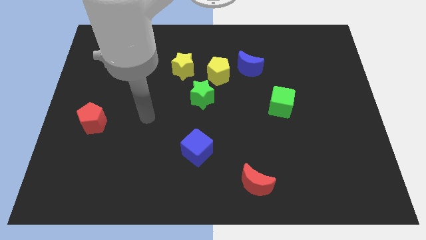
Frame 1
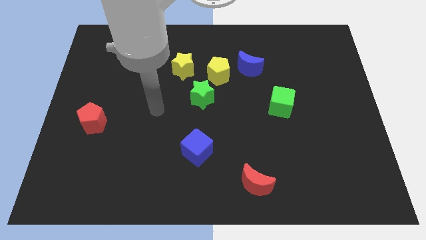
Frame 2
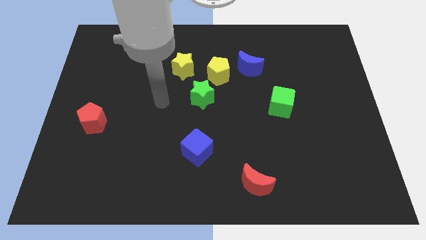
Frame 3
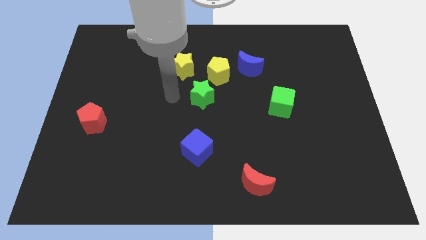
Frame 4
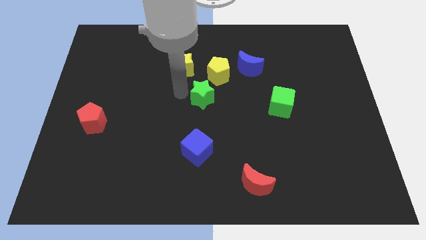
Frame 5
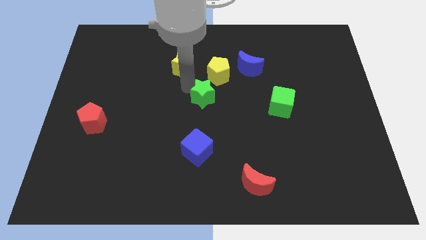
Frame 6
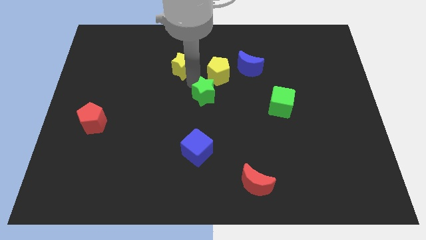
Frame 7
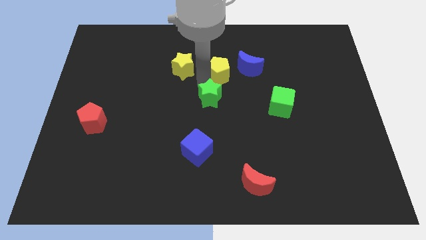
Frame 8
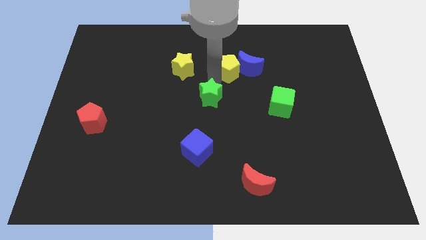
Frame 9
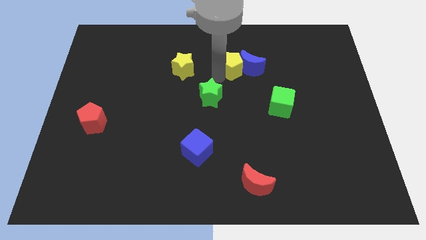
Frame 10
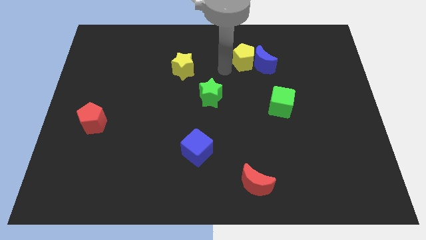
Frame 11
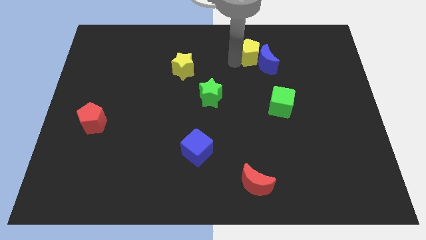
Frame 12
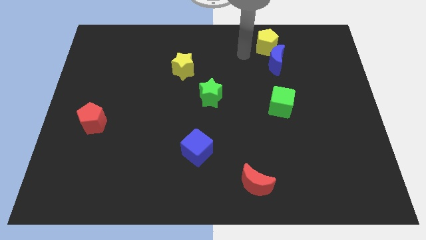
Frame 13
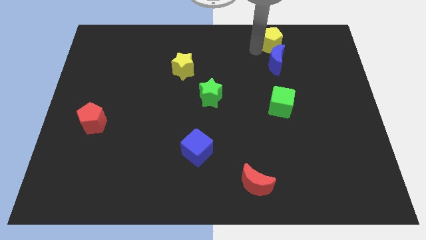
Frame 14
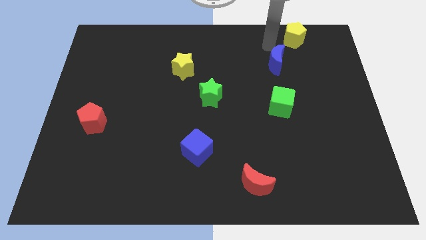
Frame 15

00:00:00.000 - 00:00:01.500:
separate the blue moon from the yellow pentagon

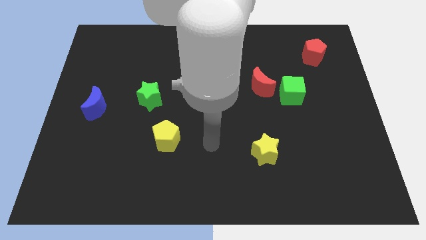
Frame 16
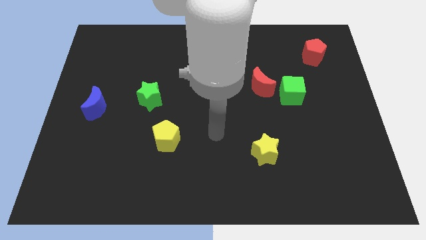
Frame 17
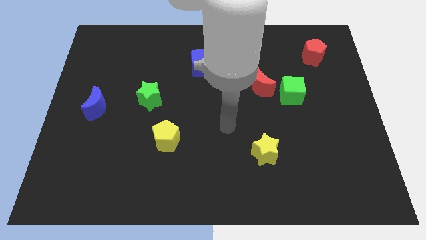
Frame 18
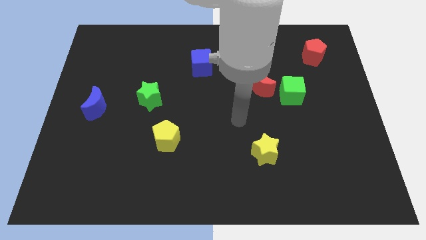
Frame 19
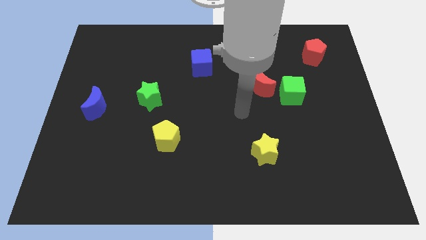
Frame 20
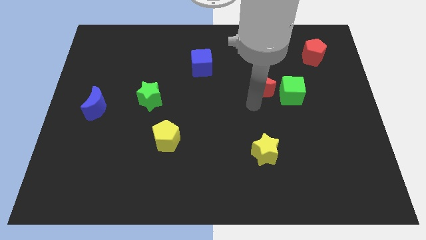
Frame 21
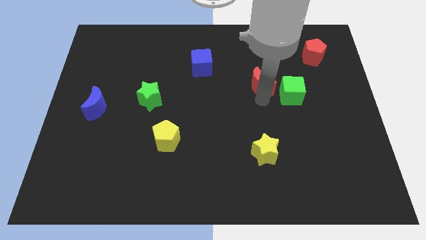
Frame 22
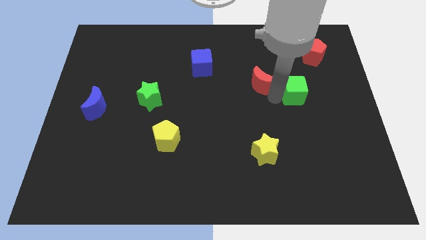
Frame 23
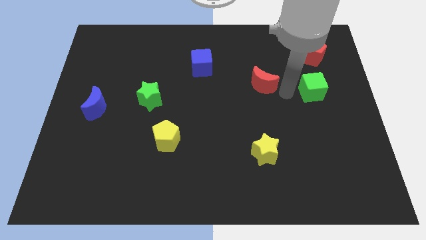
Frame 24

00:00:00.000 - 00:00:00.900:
pull the red moon apart from the green cube

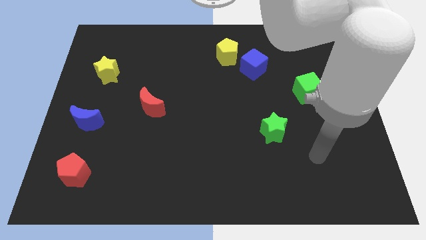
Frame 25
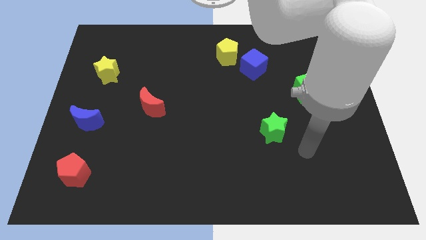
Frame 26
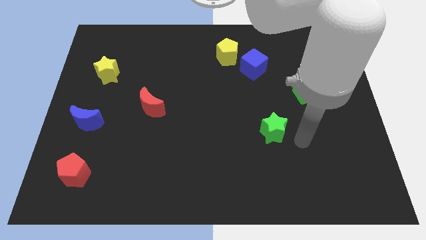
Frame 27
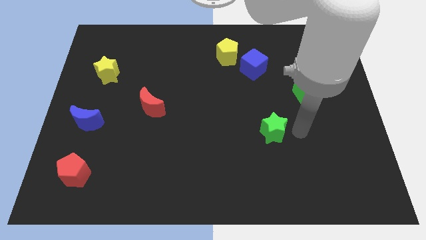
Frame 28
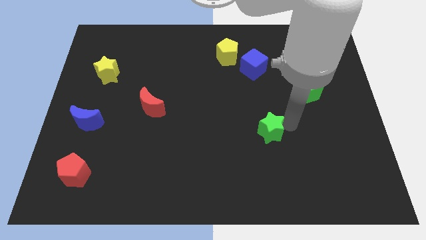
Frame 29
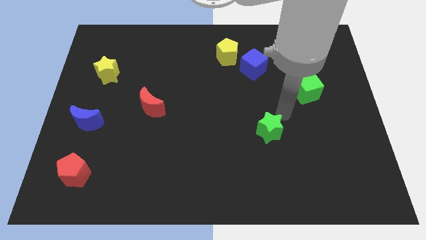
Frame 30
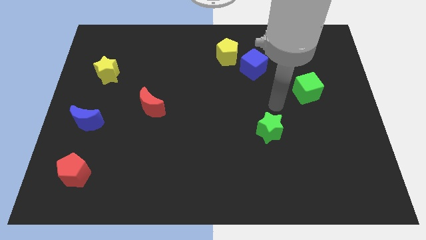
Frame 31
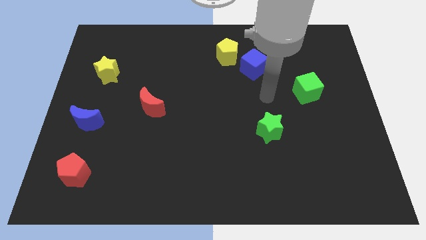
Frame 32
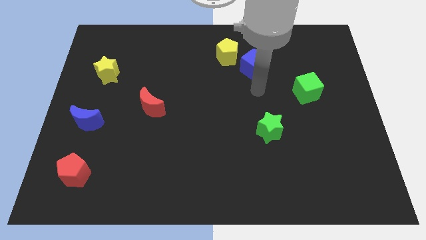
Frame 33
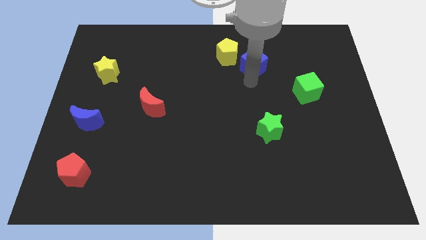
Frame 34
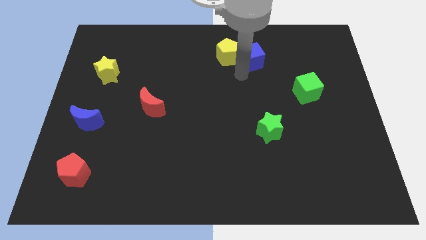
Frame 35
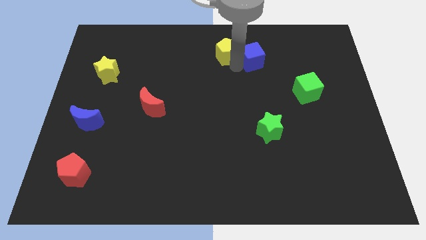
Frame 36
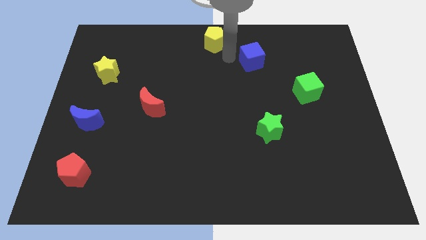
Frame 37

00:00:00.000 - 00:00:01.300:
move the blue cube away from the yellow pentagon

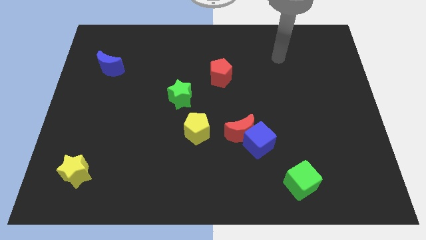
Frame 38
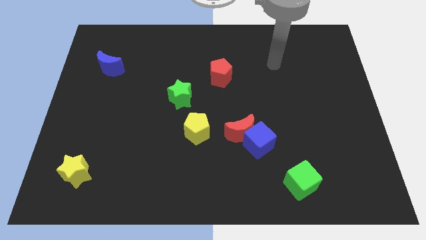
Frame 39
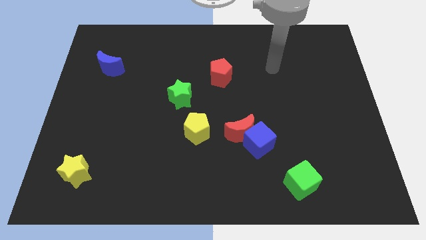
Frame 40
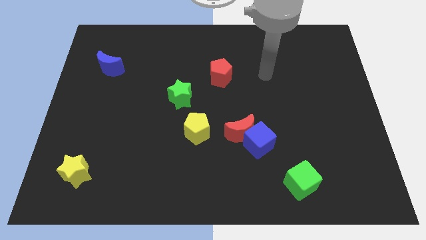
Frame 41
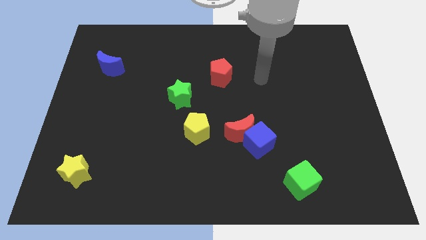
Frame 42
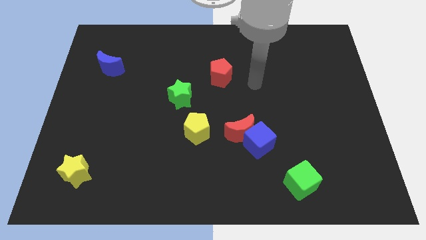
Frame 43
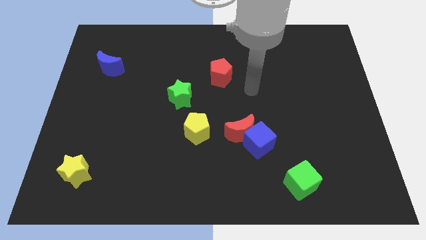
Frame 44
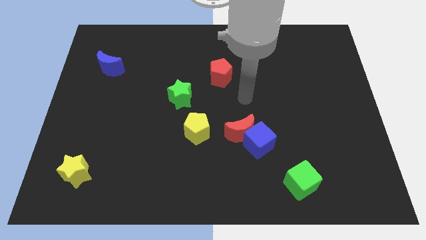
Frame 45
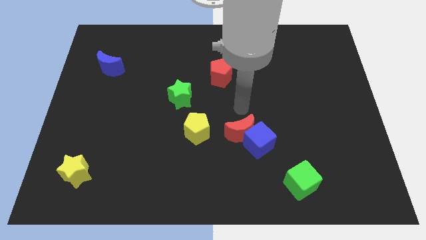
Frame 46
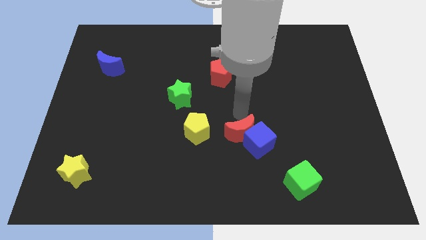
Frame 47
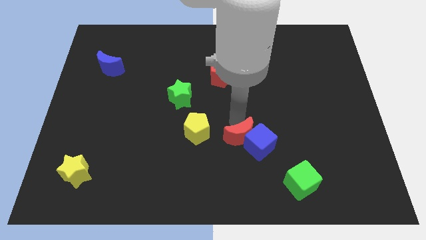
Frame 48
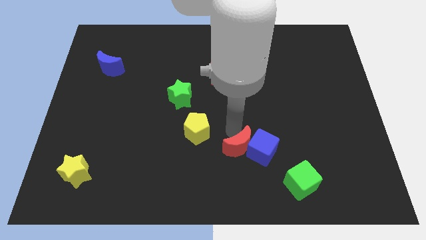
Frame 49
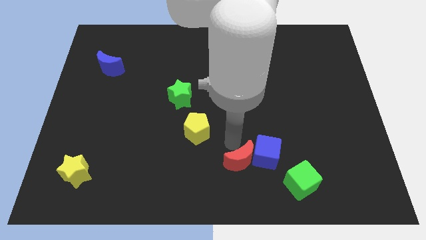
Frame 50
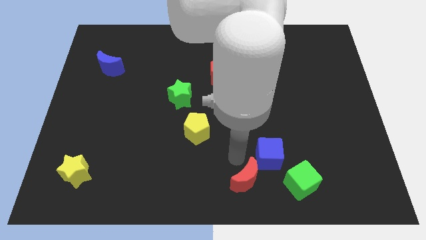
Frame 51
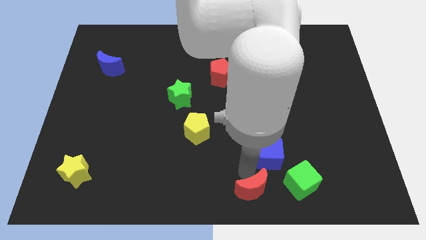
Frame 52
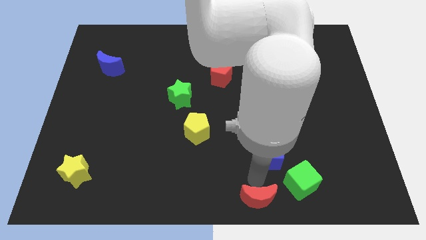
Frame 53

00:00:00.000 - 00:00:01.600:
pull the blue cube apart from the red moon

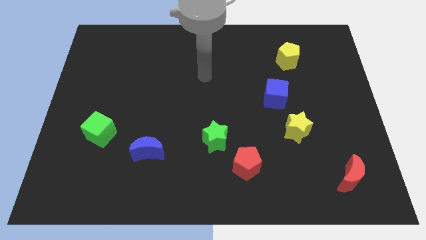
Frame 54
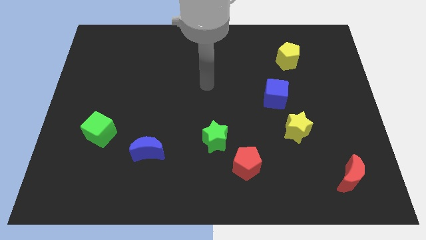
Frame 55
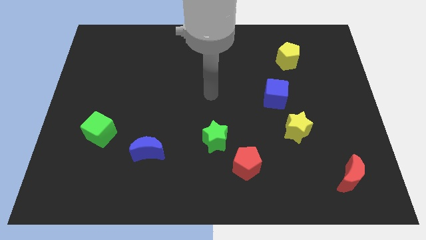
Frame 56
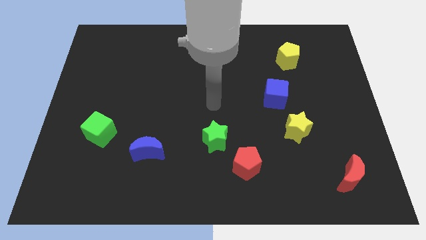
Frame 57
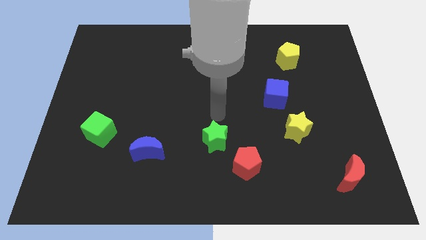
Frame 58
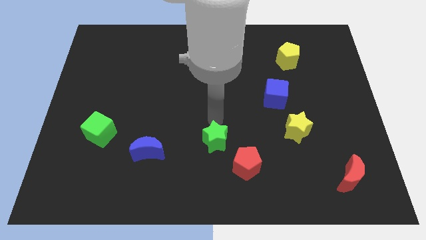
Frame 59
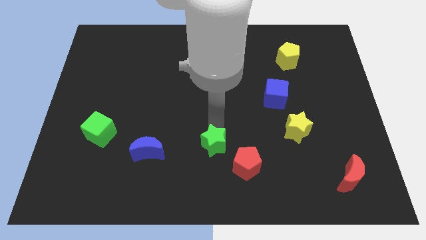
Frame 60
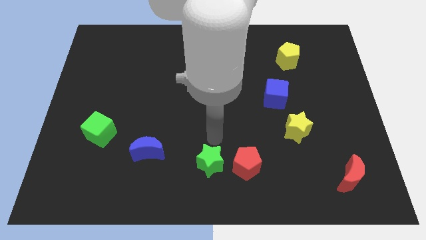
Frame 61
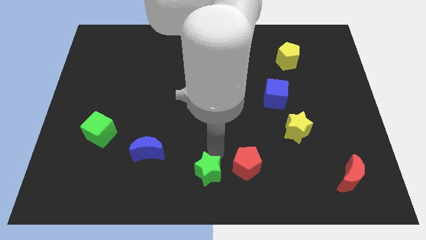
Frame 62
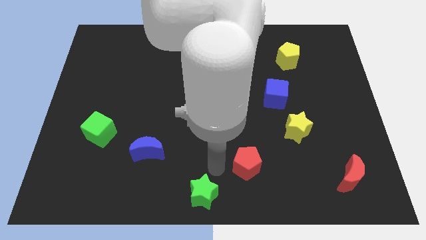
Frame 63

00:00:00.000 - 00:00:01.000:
move the red pentagon away from the green star

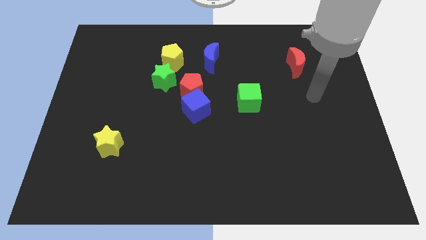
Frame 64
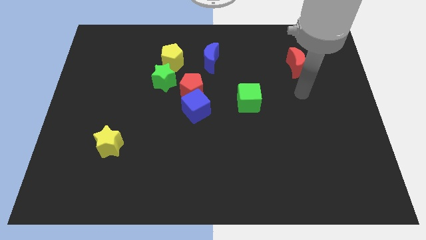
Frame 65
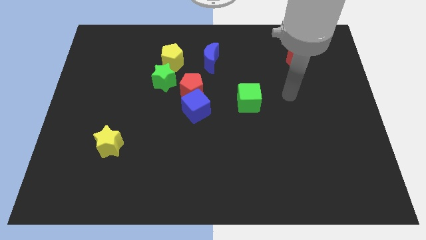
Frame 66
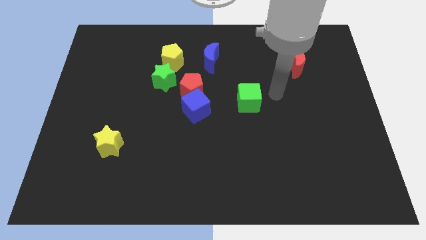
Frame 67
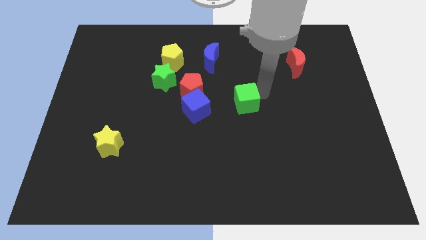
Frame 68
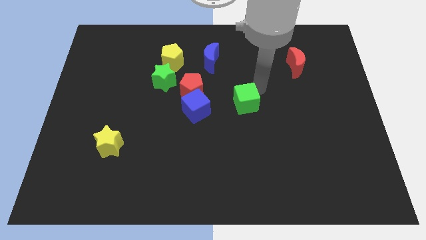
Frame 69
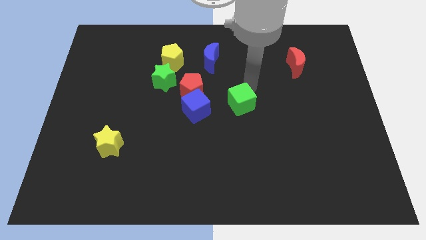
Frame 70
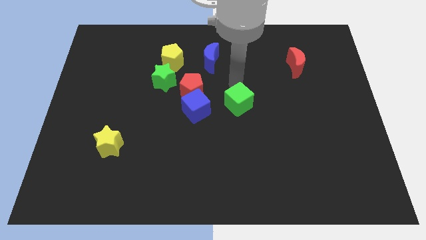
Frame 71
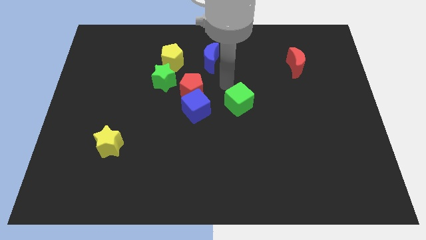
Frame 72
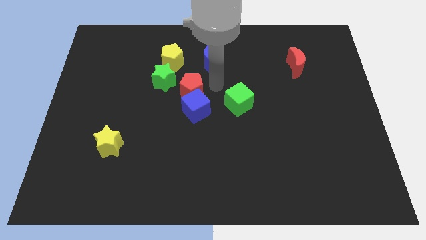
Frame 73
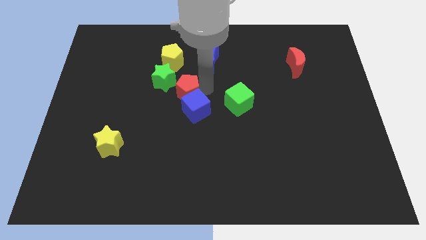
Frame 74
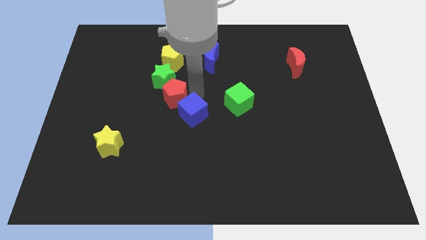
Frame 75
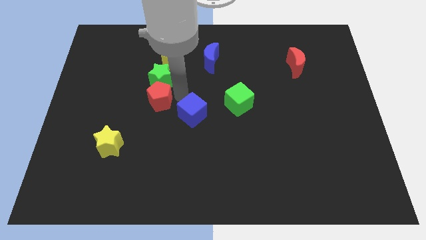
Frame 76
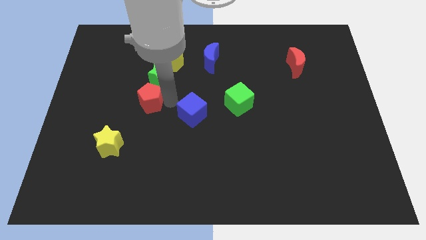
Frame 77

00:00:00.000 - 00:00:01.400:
pull the blue cube apart from the red pentagon

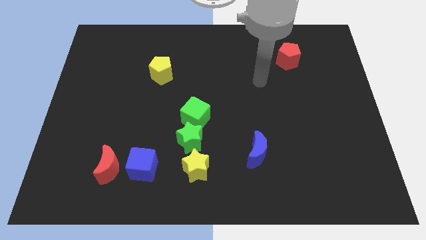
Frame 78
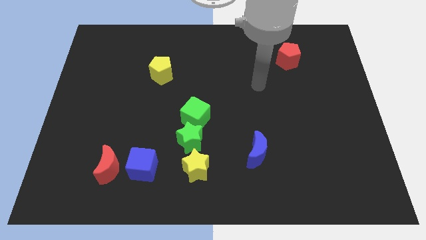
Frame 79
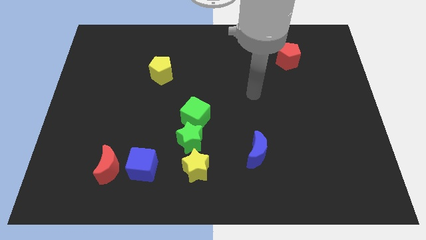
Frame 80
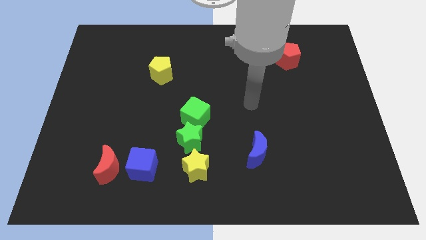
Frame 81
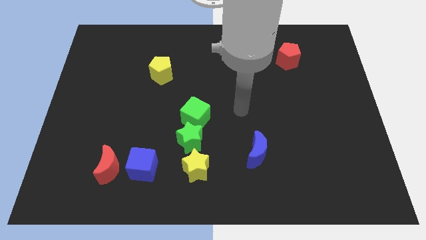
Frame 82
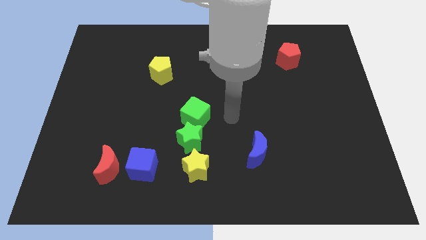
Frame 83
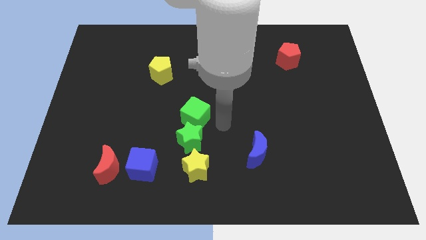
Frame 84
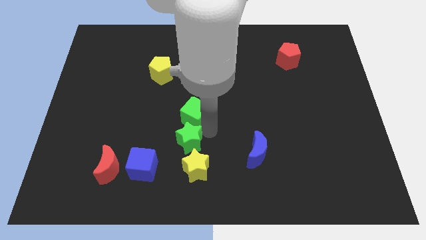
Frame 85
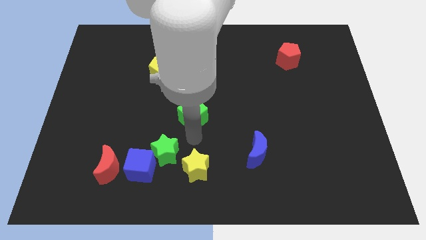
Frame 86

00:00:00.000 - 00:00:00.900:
move the green cube away from the green star

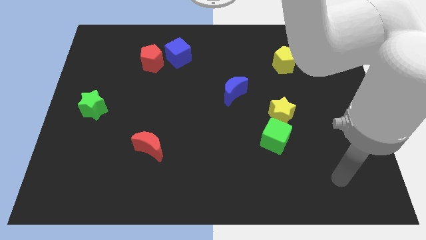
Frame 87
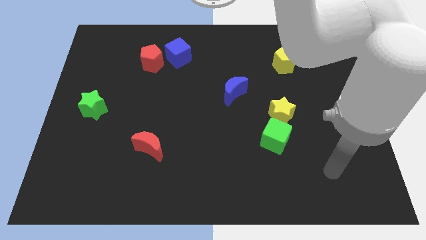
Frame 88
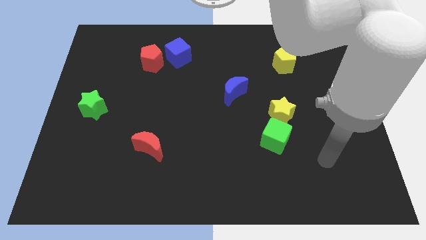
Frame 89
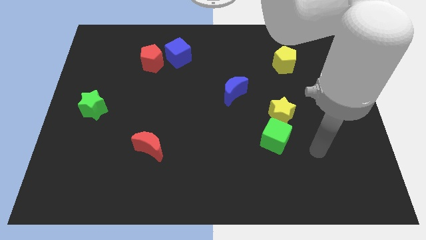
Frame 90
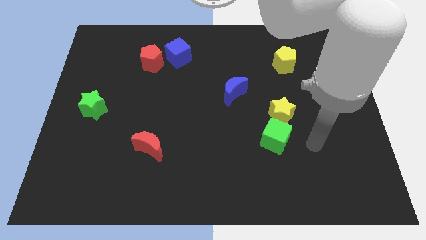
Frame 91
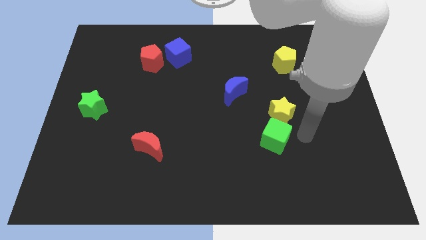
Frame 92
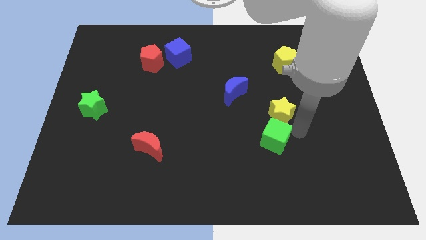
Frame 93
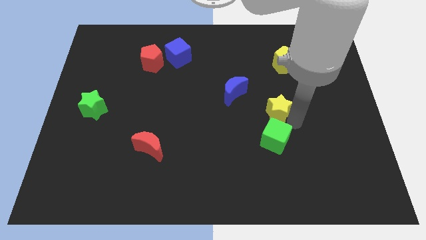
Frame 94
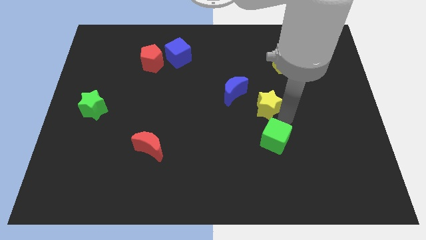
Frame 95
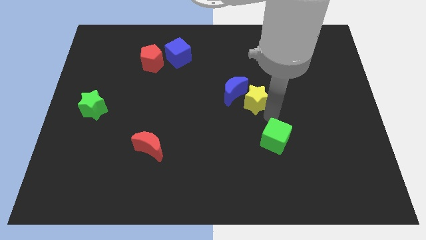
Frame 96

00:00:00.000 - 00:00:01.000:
pull the green cube apart from the yellow star
